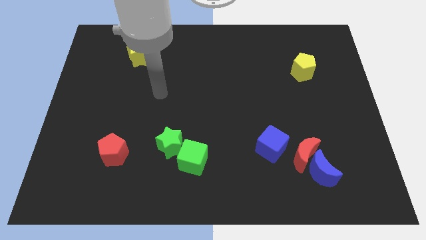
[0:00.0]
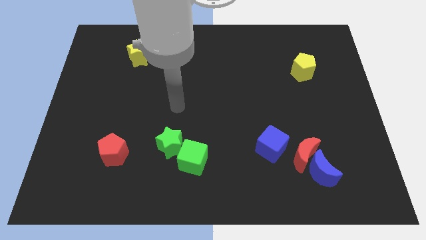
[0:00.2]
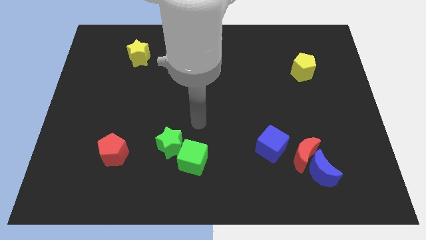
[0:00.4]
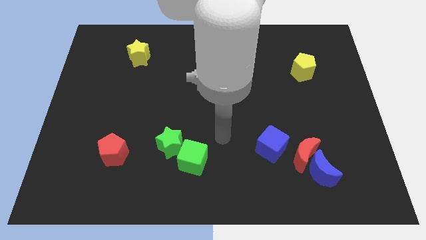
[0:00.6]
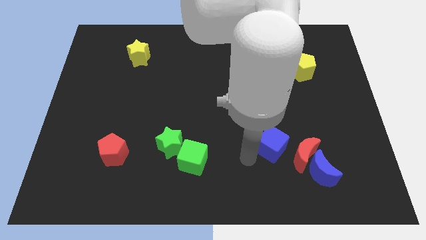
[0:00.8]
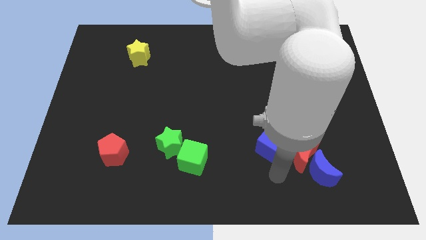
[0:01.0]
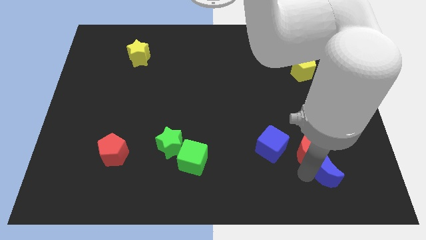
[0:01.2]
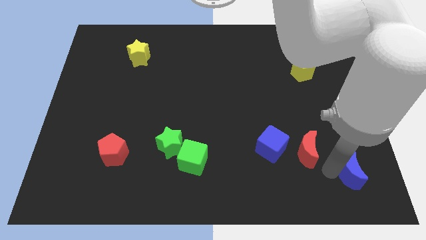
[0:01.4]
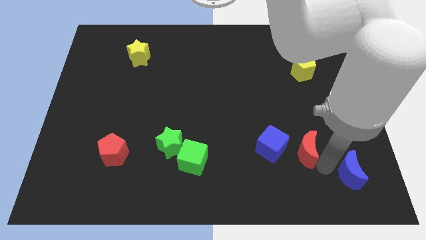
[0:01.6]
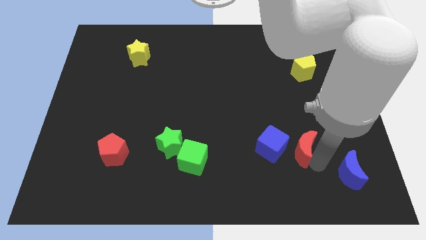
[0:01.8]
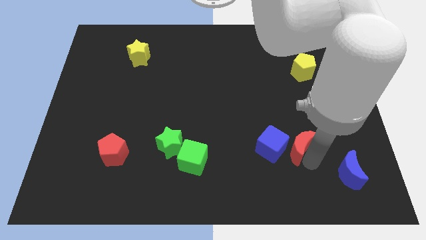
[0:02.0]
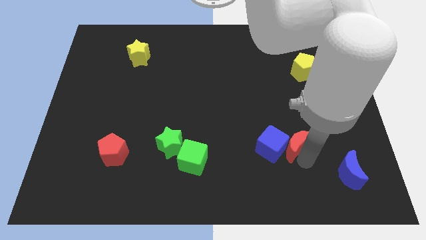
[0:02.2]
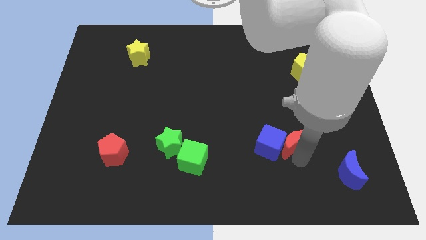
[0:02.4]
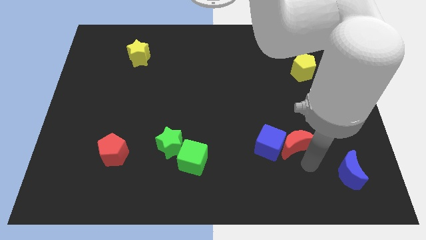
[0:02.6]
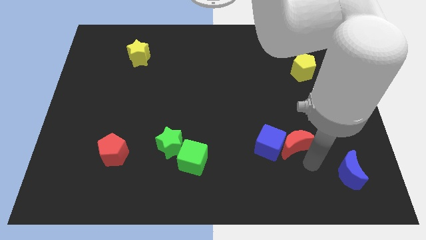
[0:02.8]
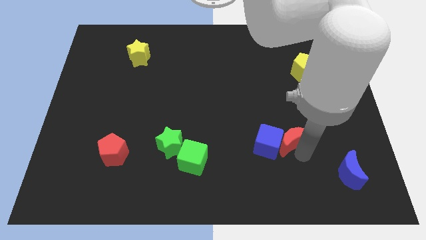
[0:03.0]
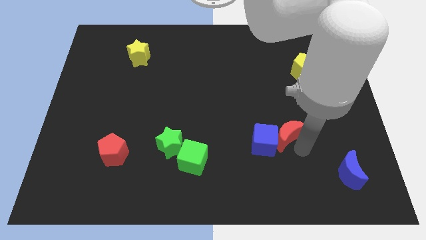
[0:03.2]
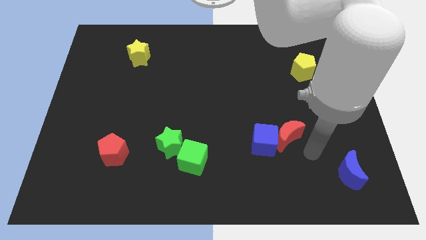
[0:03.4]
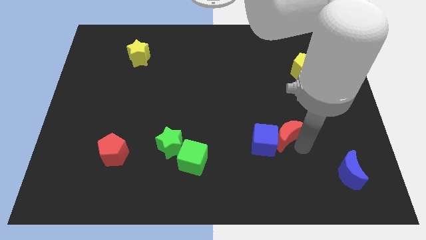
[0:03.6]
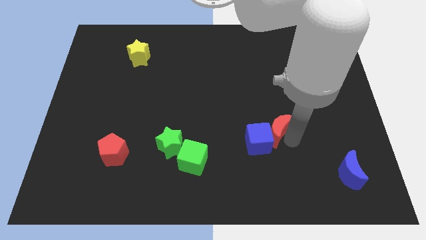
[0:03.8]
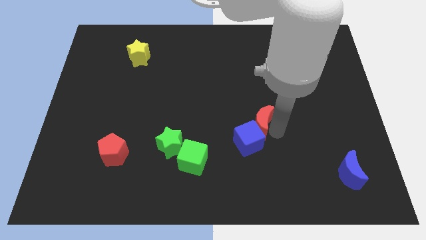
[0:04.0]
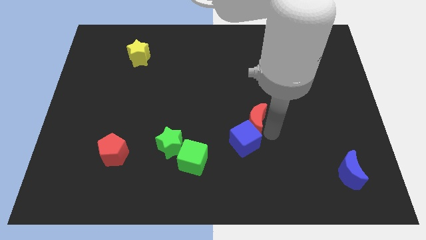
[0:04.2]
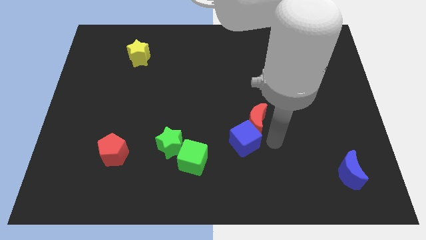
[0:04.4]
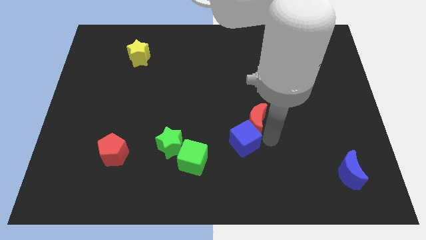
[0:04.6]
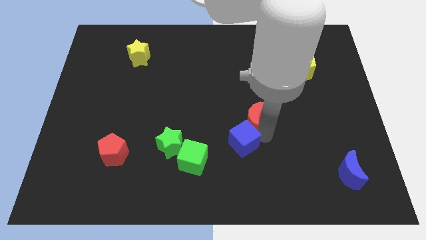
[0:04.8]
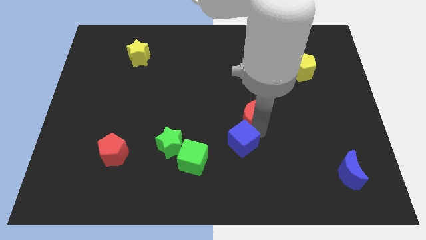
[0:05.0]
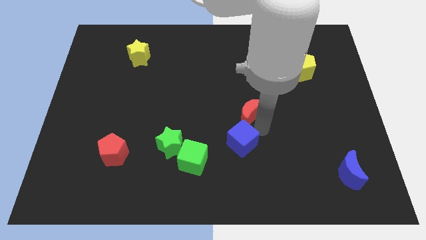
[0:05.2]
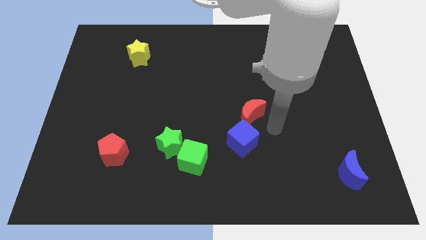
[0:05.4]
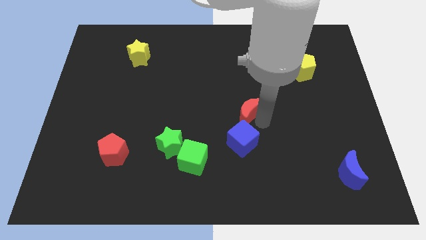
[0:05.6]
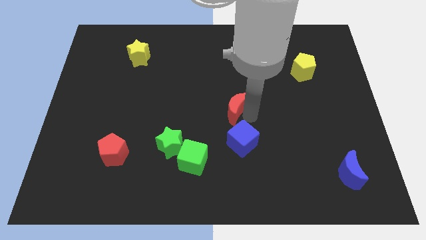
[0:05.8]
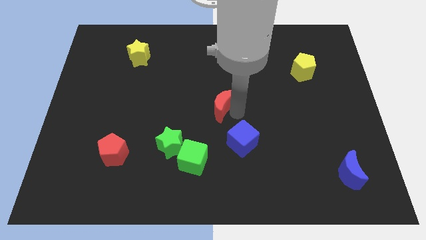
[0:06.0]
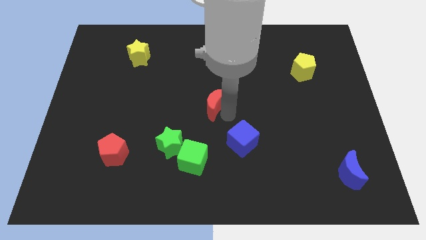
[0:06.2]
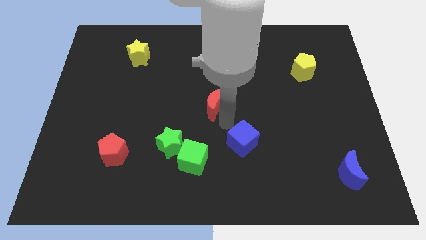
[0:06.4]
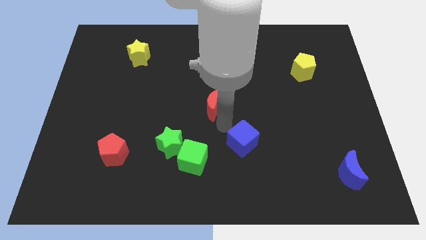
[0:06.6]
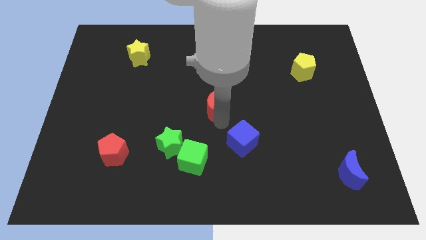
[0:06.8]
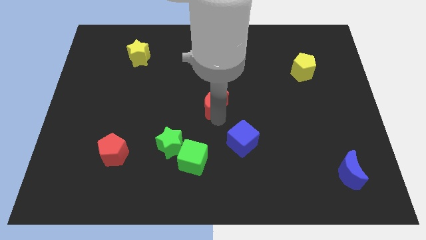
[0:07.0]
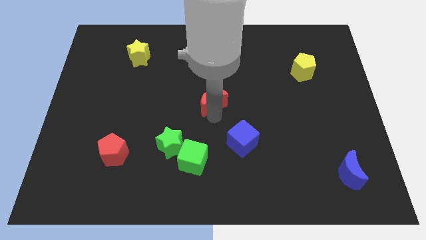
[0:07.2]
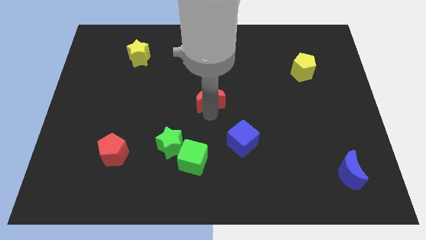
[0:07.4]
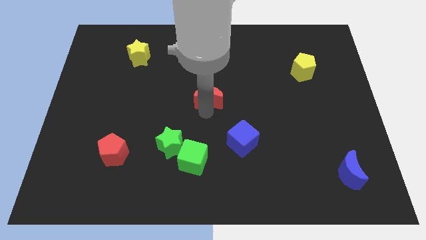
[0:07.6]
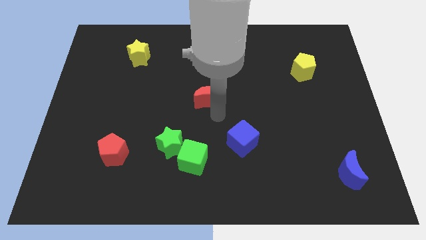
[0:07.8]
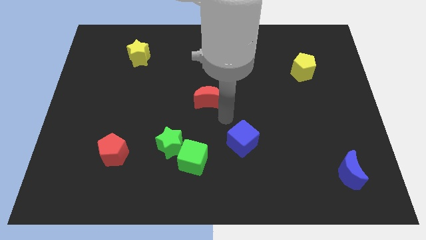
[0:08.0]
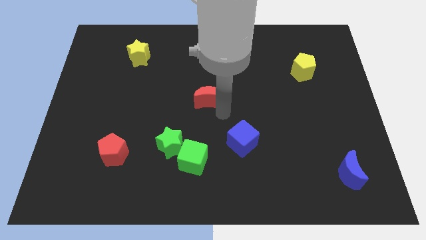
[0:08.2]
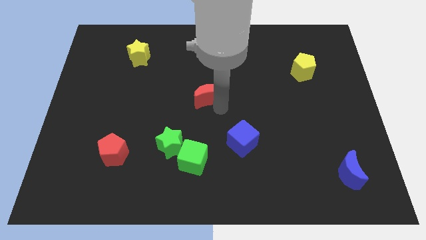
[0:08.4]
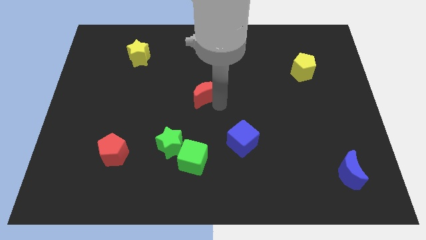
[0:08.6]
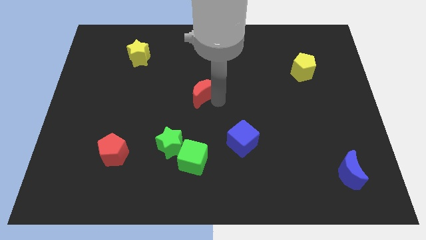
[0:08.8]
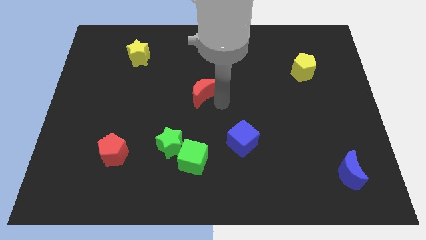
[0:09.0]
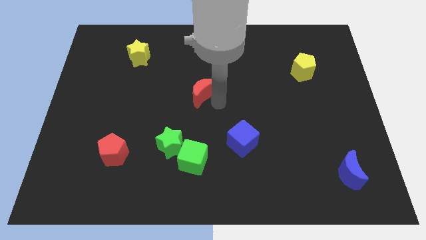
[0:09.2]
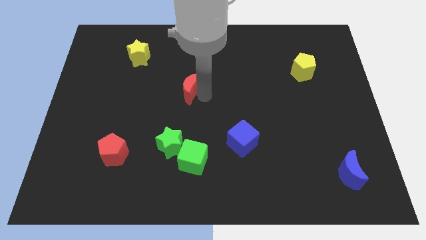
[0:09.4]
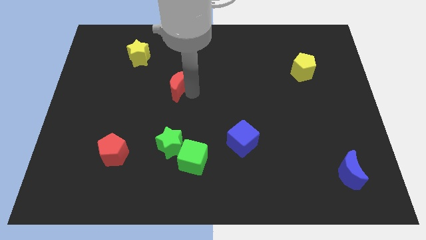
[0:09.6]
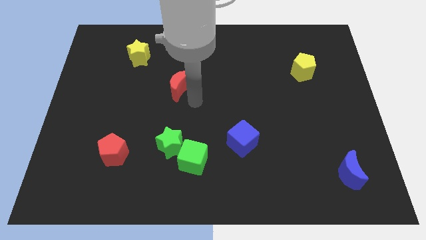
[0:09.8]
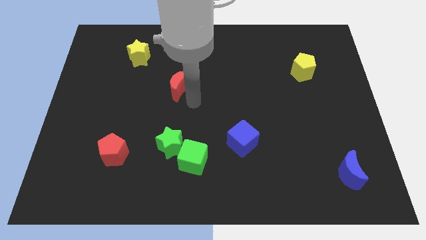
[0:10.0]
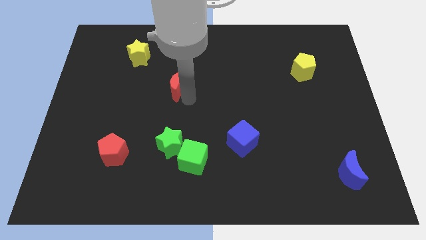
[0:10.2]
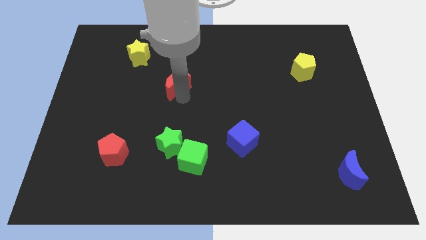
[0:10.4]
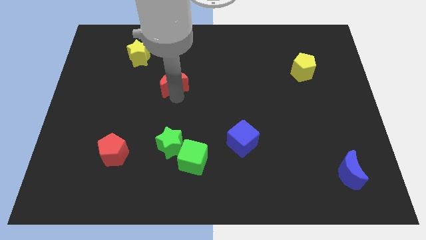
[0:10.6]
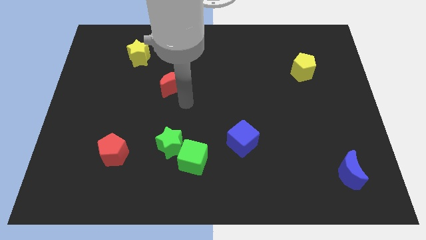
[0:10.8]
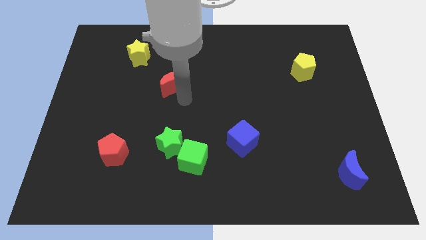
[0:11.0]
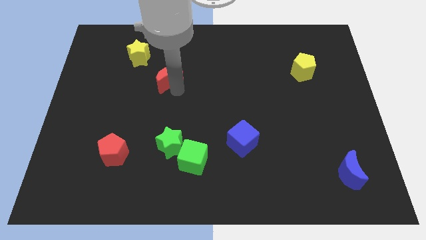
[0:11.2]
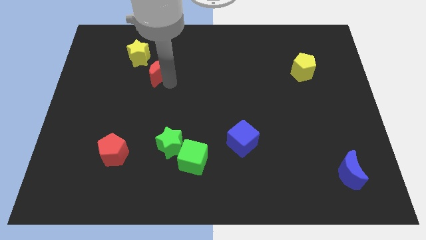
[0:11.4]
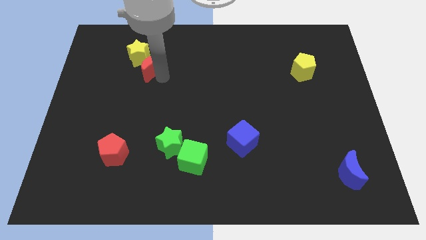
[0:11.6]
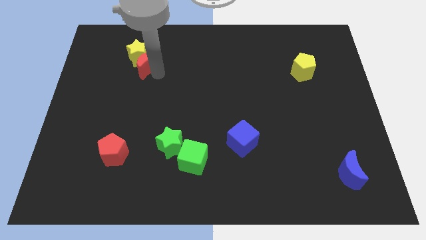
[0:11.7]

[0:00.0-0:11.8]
slide the red moon to the yellow star

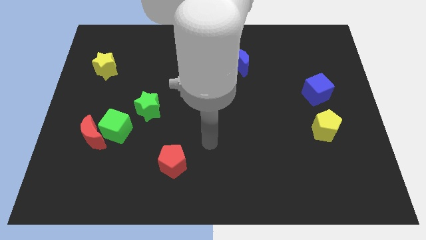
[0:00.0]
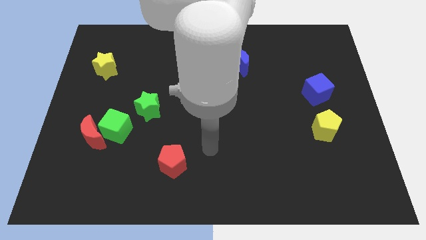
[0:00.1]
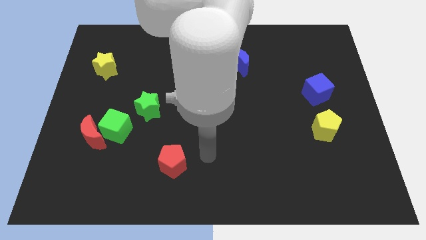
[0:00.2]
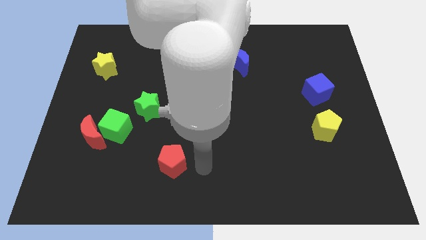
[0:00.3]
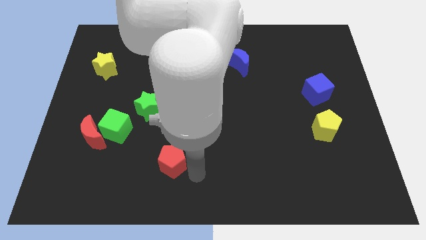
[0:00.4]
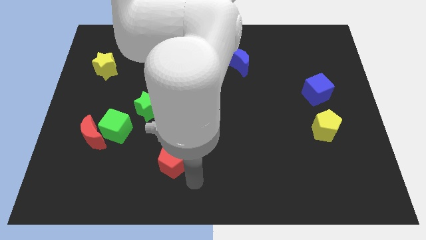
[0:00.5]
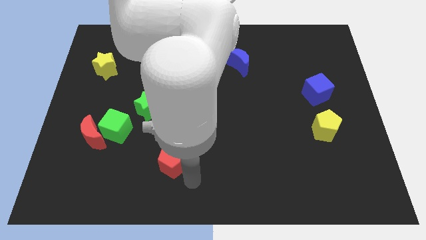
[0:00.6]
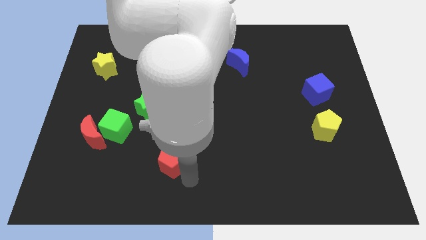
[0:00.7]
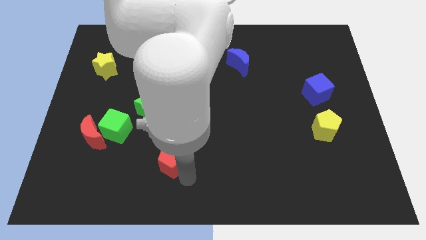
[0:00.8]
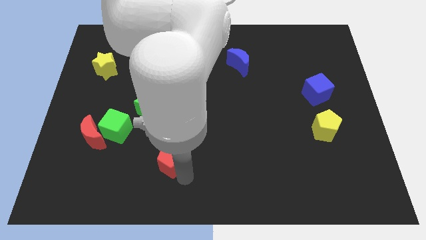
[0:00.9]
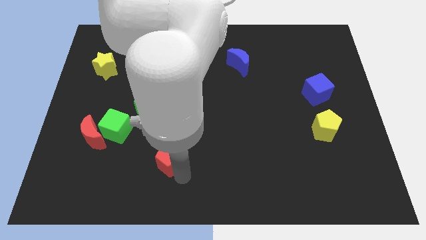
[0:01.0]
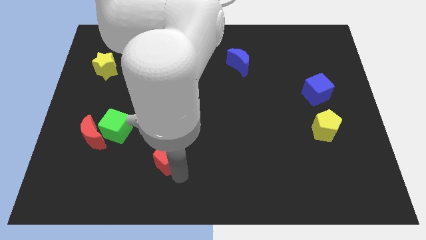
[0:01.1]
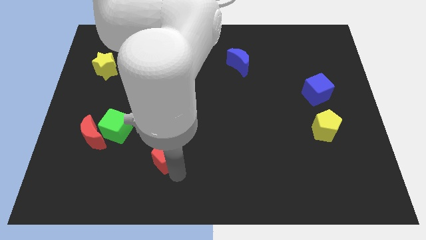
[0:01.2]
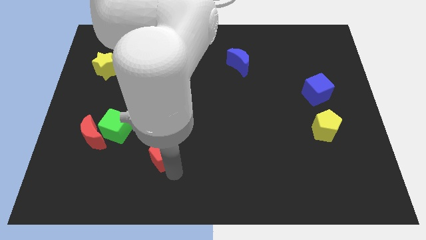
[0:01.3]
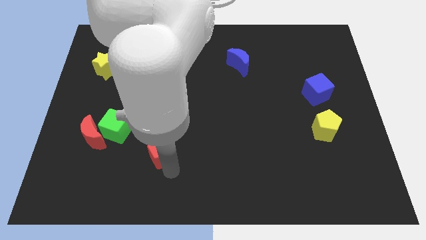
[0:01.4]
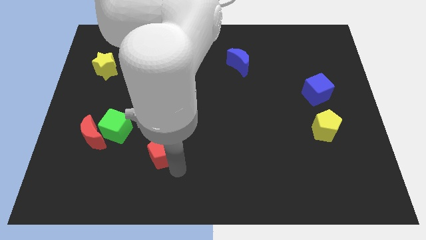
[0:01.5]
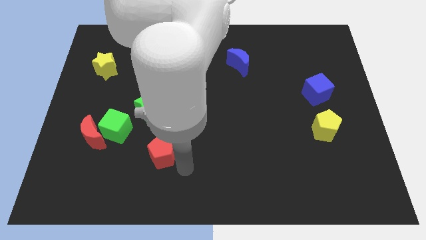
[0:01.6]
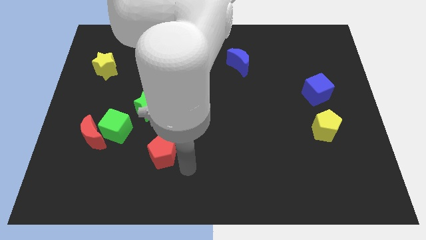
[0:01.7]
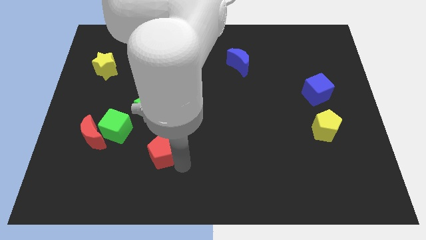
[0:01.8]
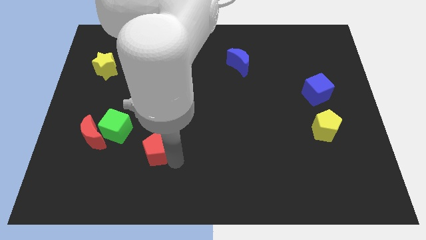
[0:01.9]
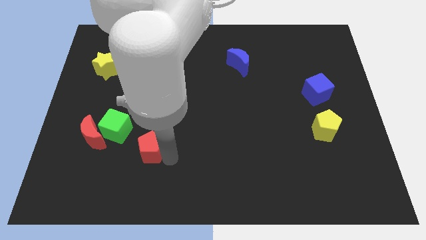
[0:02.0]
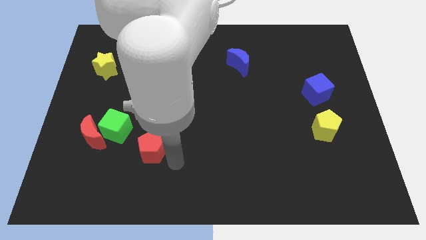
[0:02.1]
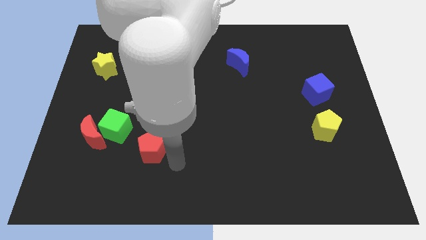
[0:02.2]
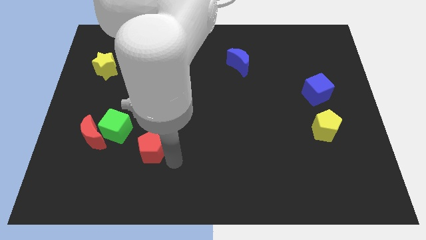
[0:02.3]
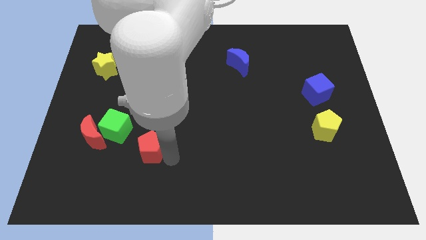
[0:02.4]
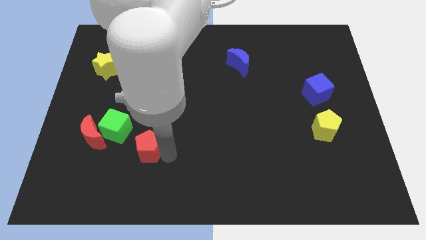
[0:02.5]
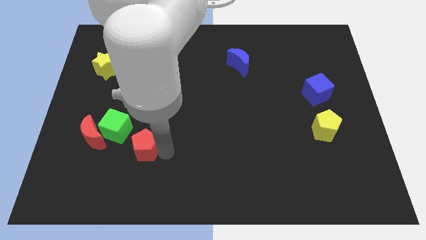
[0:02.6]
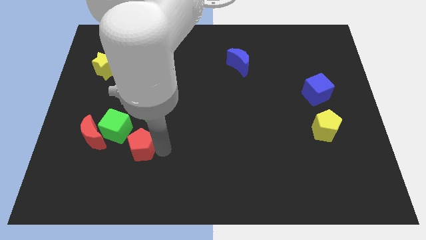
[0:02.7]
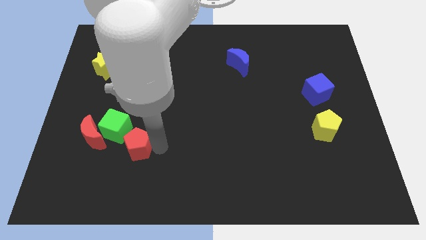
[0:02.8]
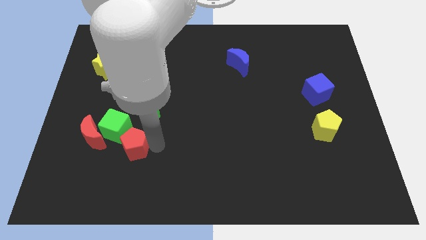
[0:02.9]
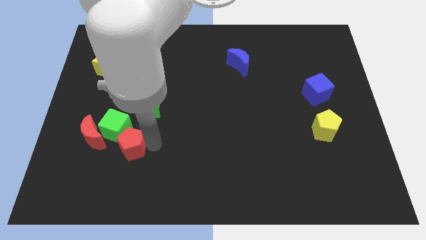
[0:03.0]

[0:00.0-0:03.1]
push the red pentagon close to the green cube
